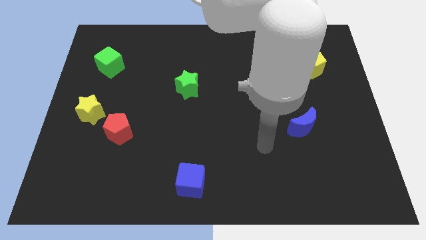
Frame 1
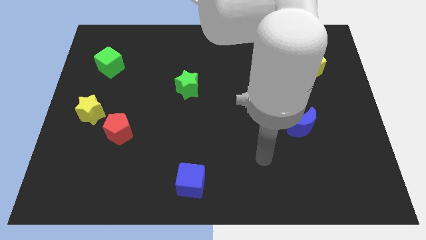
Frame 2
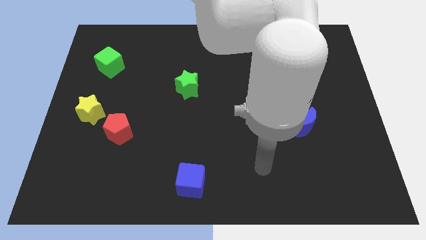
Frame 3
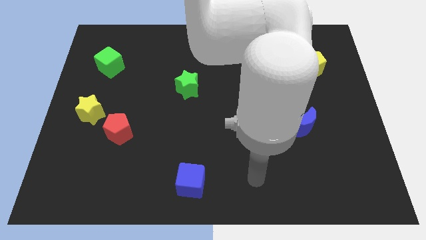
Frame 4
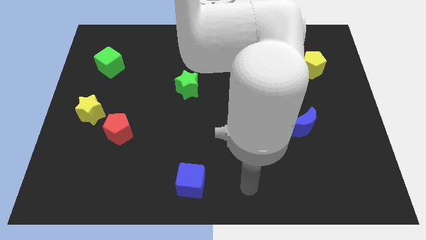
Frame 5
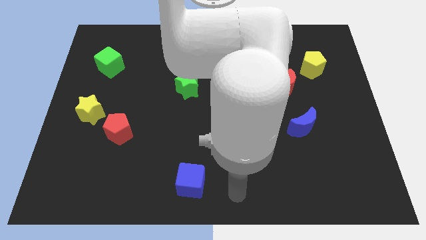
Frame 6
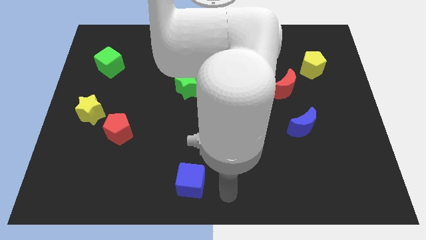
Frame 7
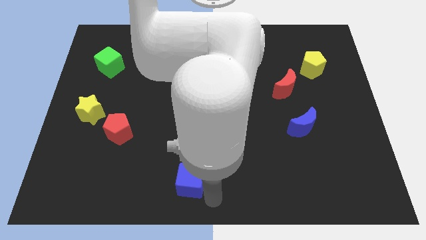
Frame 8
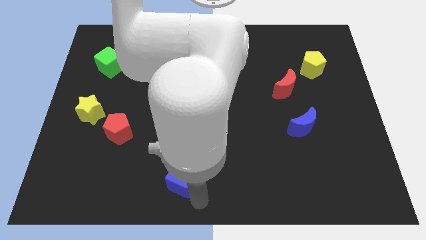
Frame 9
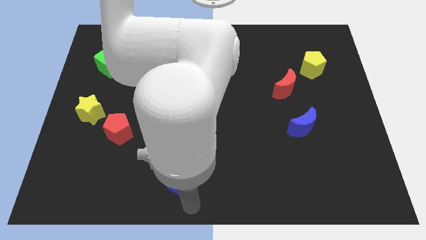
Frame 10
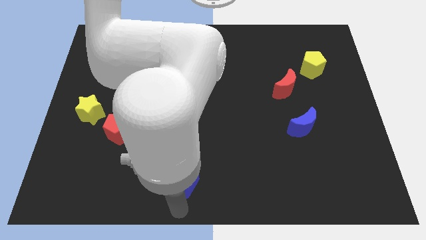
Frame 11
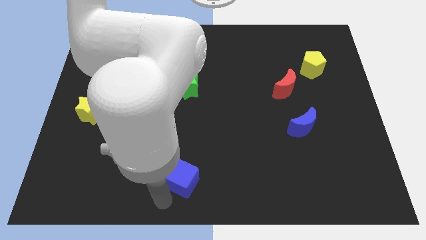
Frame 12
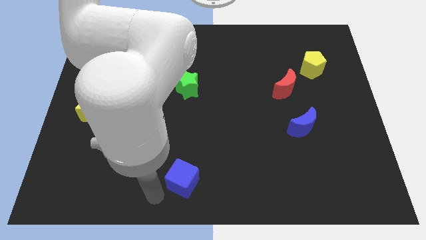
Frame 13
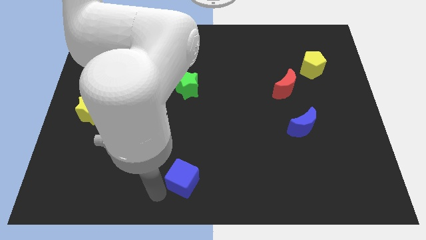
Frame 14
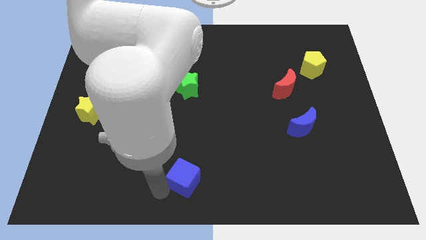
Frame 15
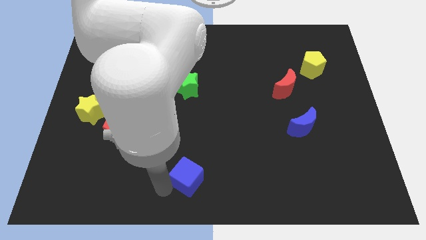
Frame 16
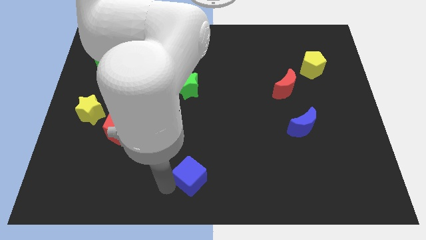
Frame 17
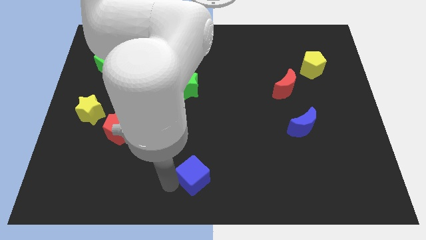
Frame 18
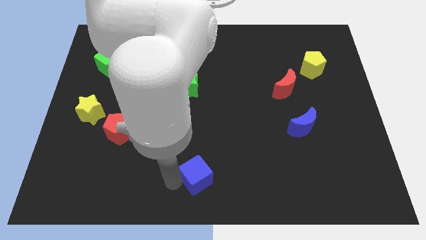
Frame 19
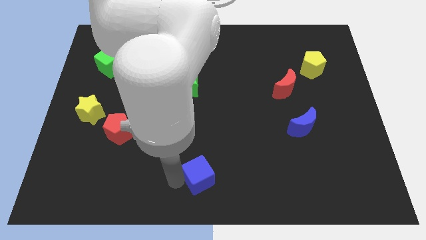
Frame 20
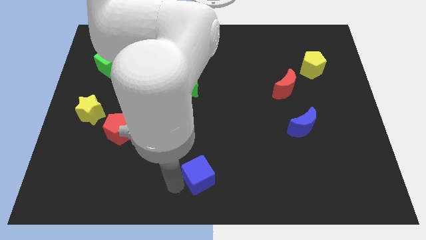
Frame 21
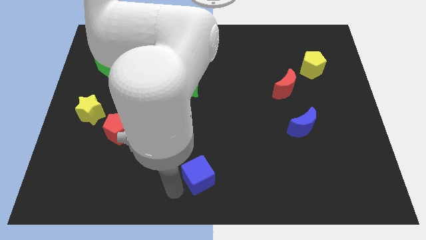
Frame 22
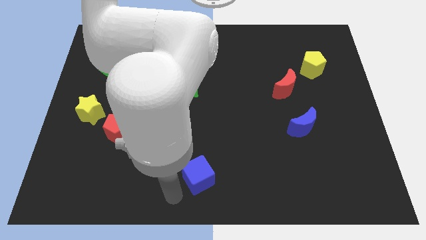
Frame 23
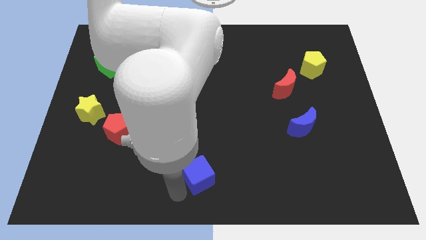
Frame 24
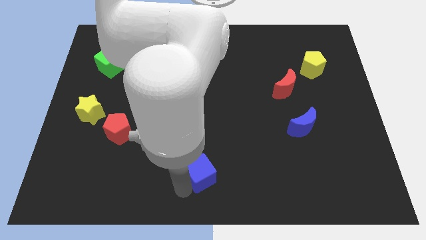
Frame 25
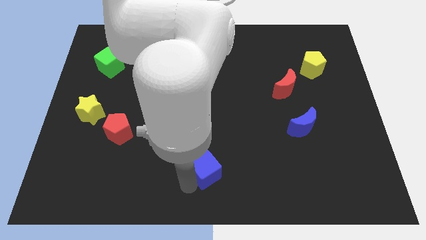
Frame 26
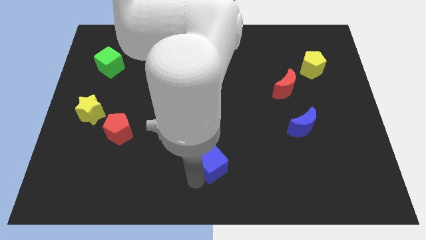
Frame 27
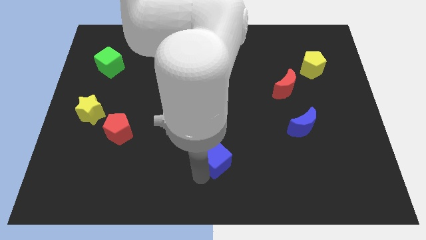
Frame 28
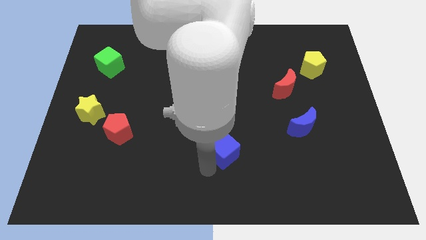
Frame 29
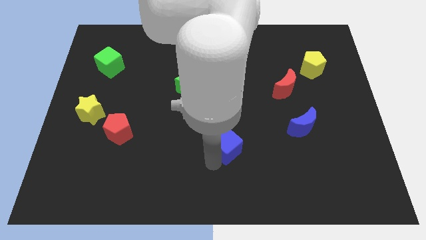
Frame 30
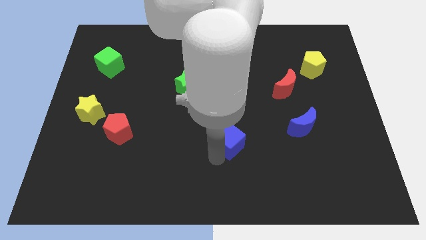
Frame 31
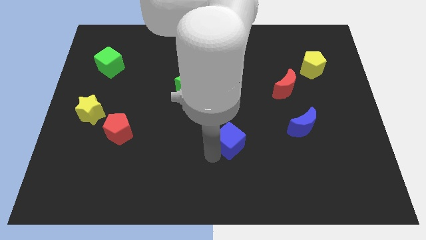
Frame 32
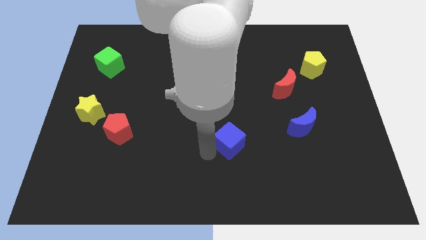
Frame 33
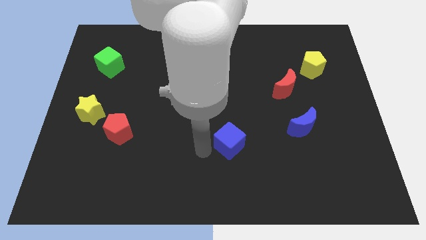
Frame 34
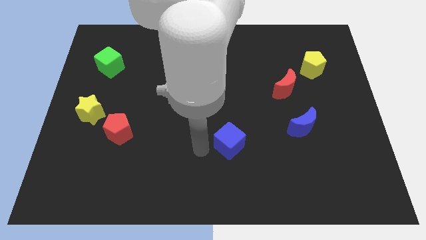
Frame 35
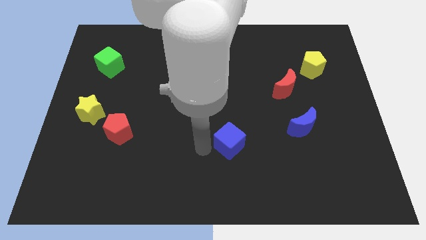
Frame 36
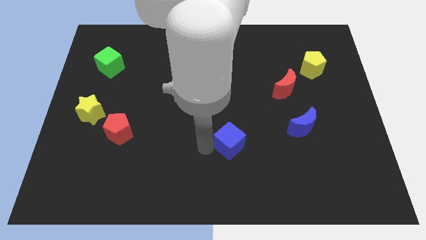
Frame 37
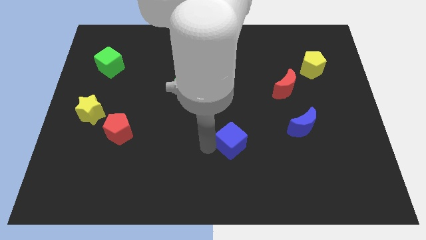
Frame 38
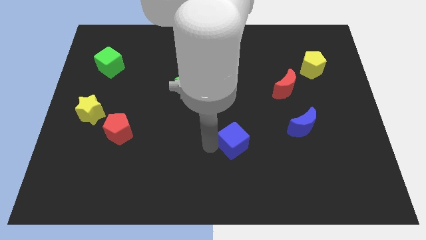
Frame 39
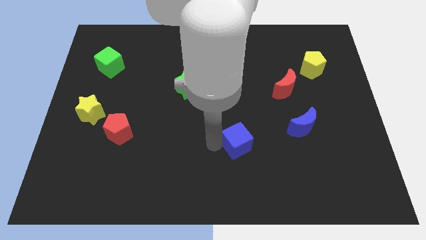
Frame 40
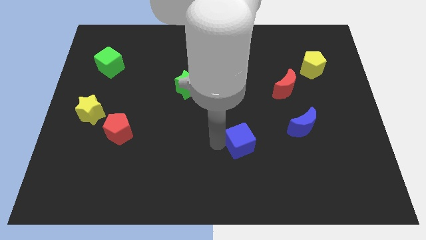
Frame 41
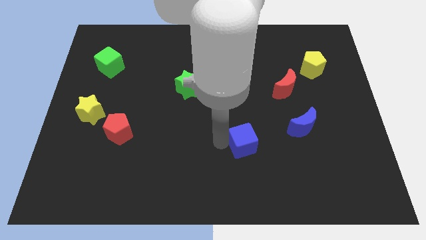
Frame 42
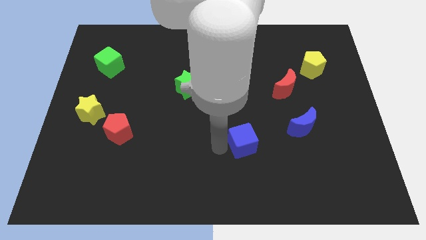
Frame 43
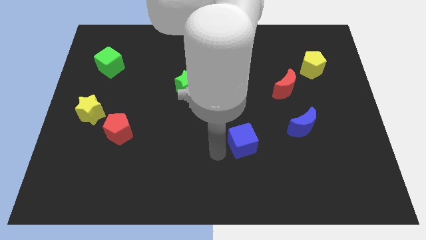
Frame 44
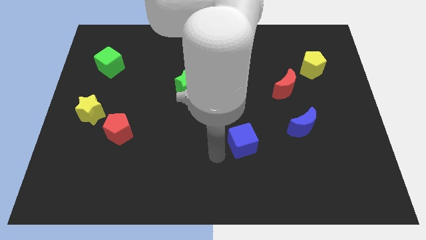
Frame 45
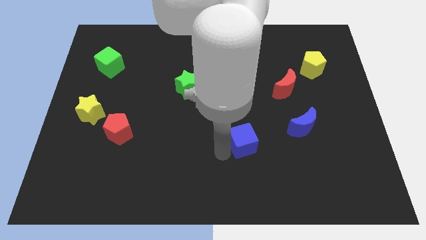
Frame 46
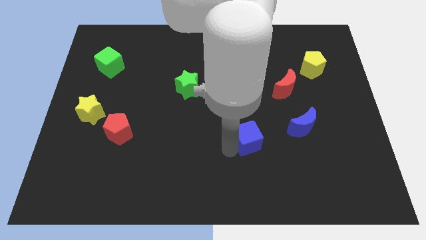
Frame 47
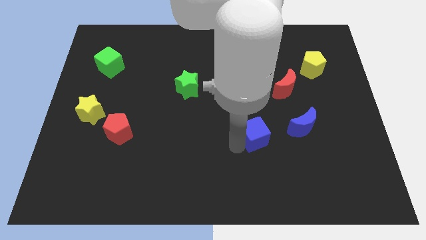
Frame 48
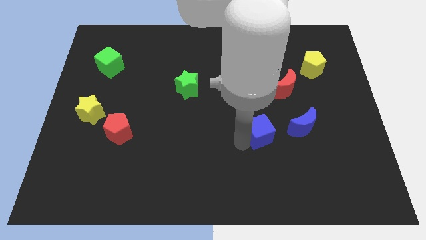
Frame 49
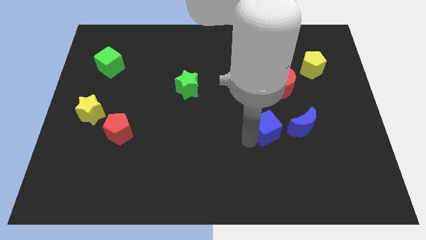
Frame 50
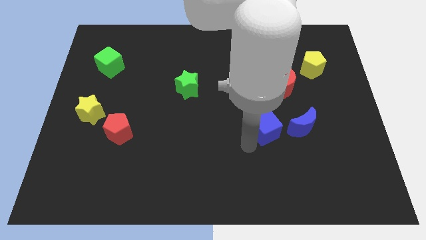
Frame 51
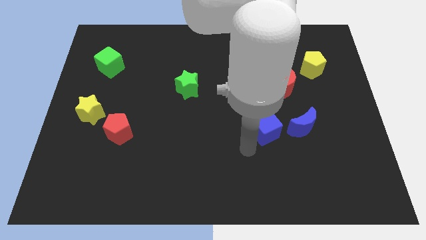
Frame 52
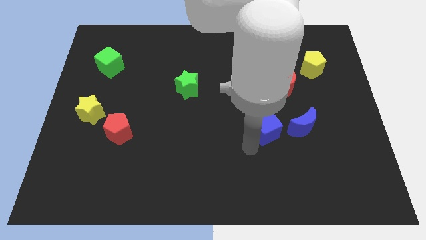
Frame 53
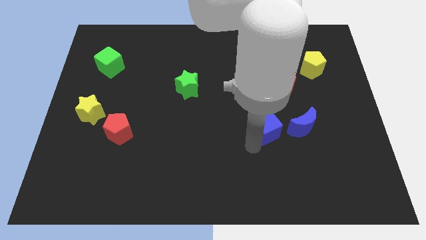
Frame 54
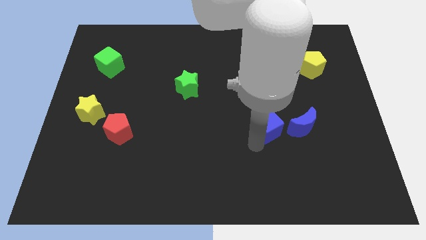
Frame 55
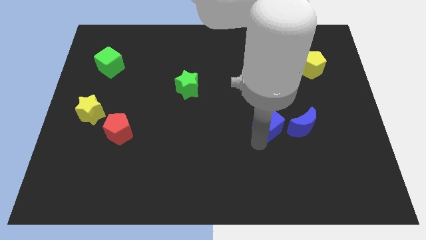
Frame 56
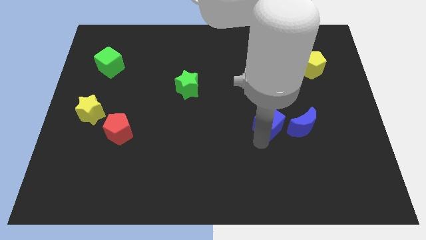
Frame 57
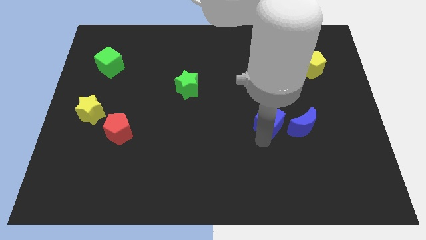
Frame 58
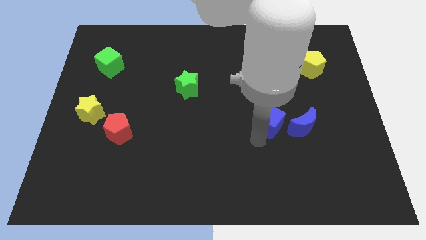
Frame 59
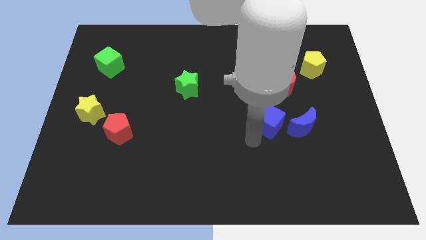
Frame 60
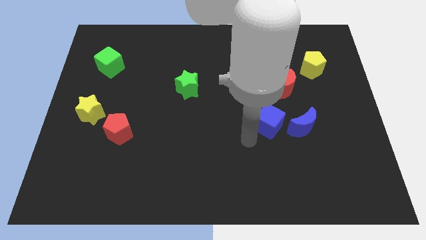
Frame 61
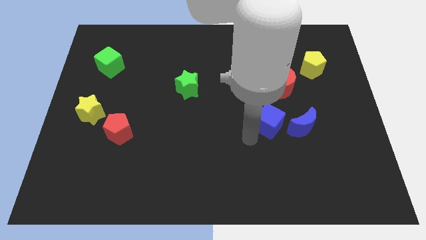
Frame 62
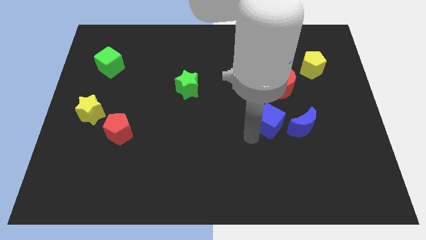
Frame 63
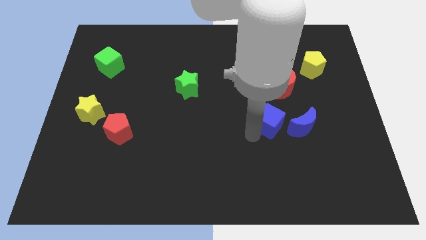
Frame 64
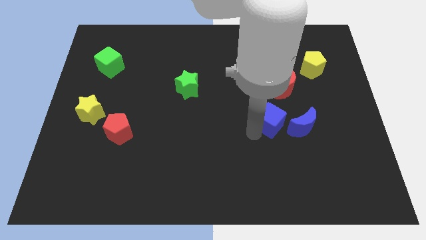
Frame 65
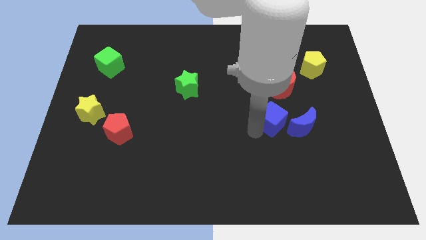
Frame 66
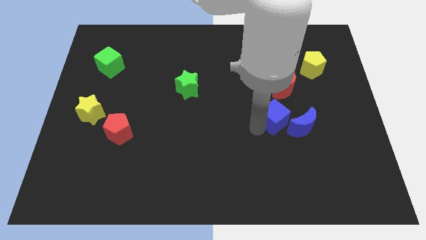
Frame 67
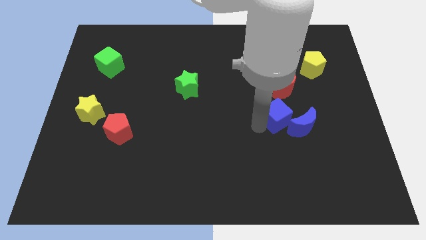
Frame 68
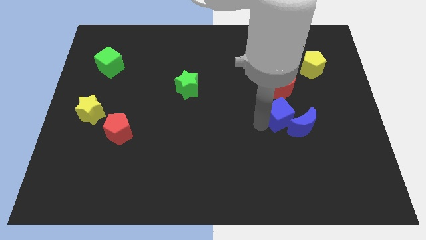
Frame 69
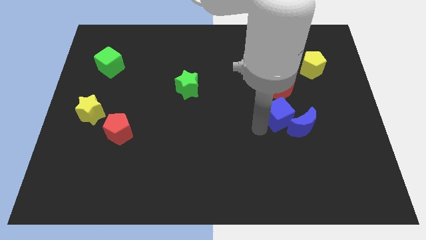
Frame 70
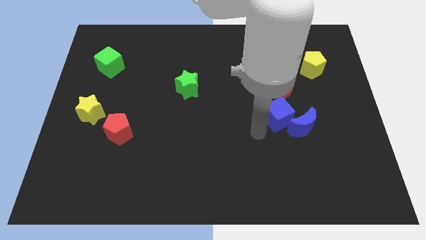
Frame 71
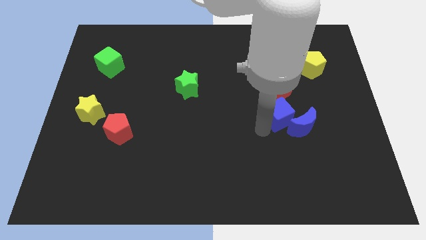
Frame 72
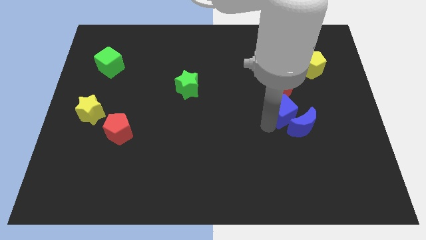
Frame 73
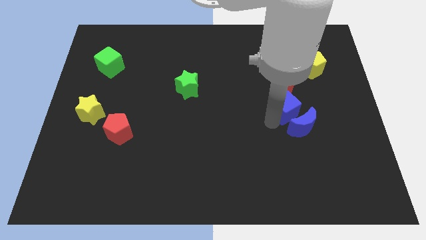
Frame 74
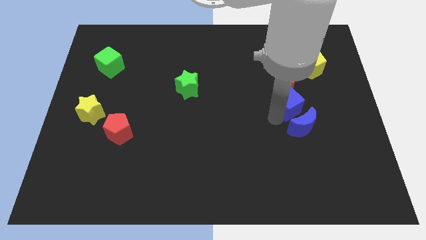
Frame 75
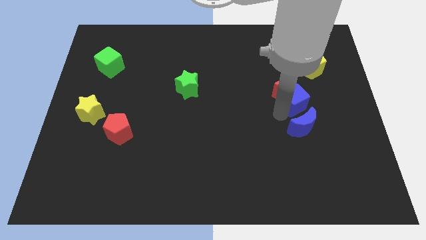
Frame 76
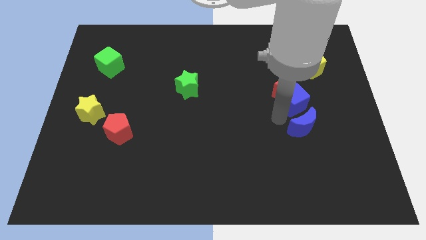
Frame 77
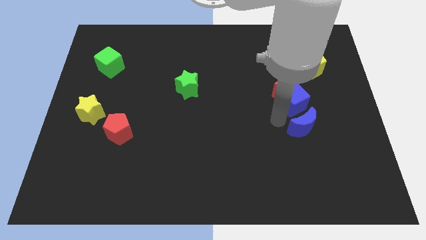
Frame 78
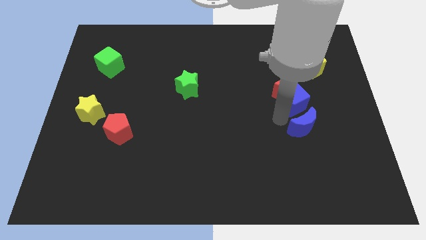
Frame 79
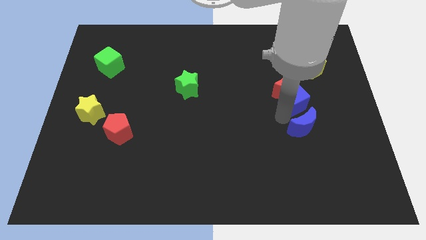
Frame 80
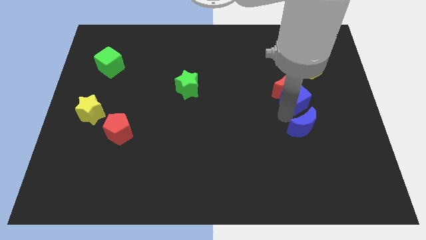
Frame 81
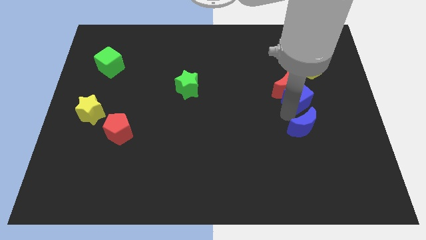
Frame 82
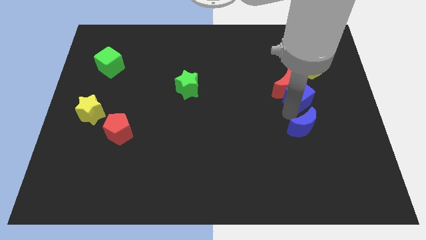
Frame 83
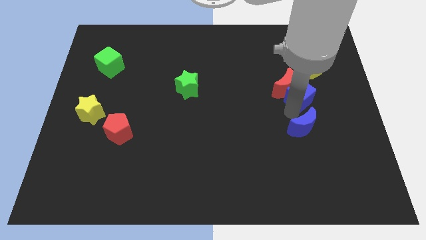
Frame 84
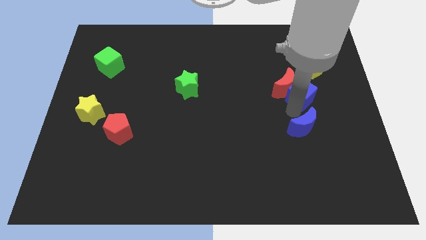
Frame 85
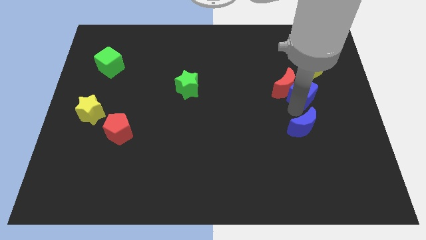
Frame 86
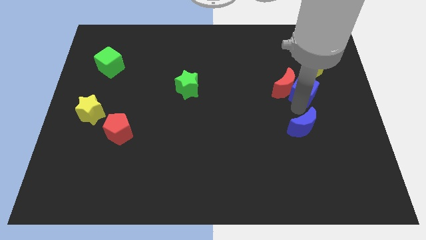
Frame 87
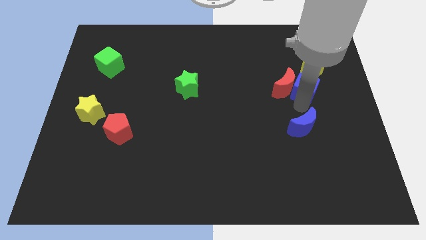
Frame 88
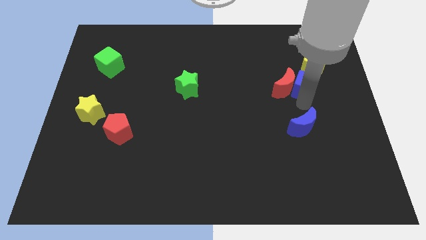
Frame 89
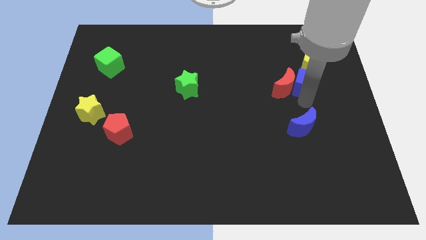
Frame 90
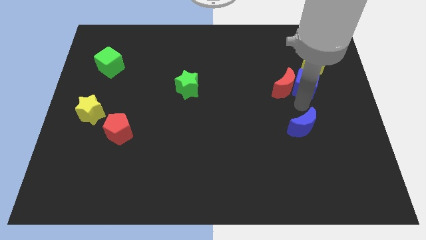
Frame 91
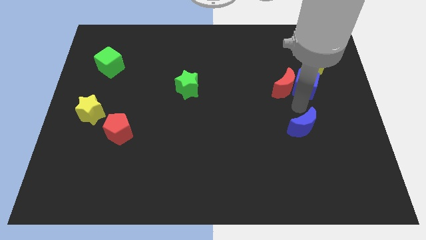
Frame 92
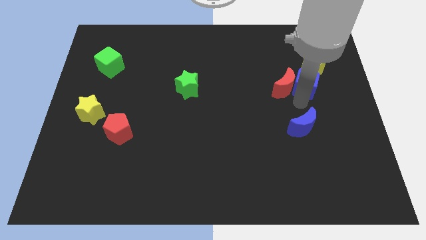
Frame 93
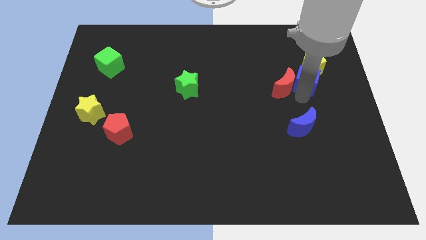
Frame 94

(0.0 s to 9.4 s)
push the blue cube next to the yellow pentagon
